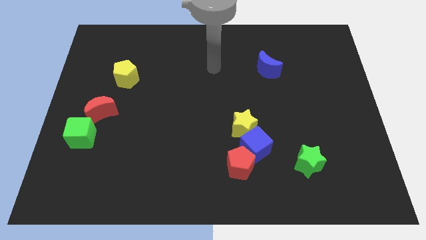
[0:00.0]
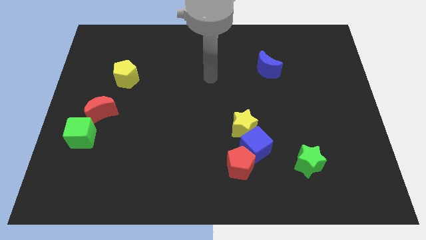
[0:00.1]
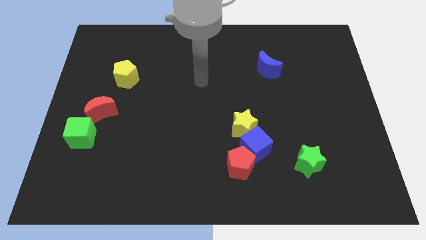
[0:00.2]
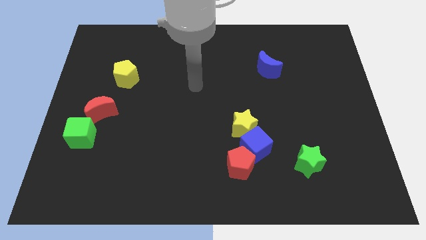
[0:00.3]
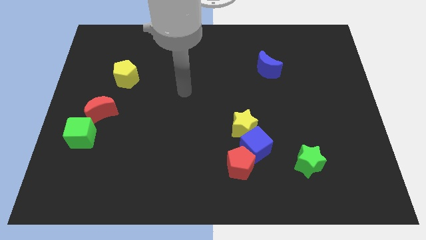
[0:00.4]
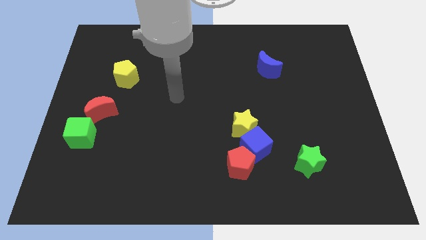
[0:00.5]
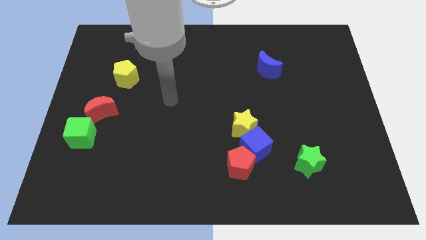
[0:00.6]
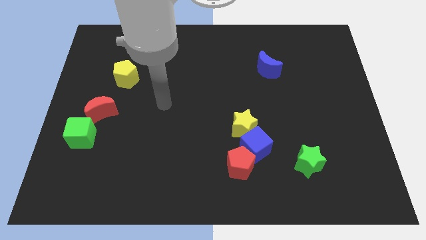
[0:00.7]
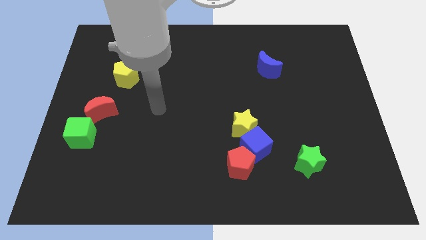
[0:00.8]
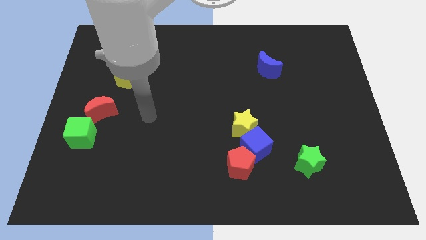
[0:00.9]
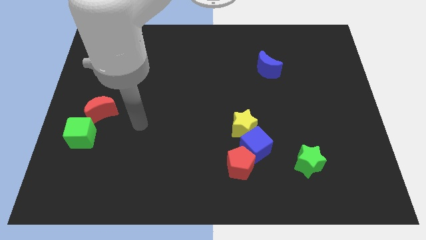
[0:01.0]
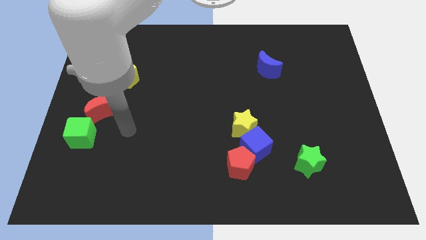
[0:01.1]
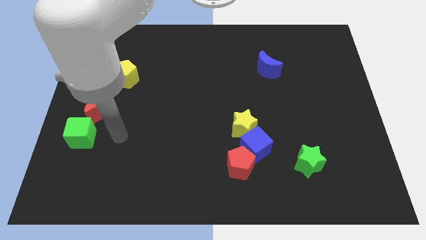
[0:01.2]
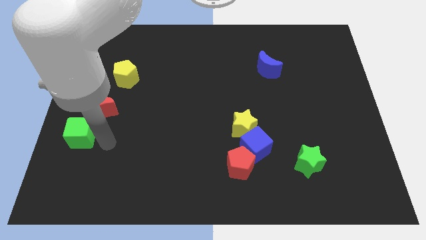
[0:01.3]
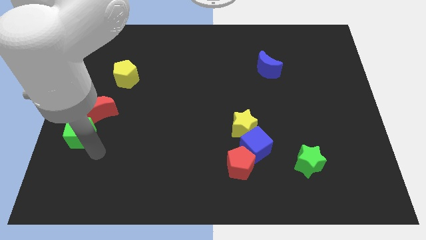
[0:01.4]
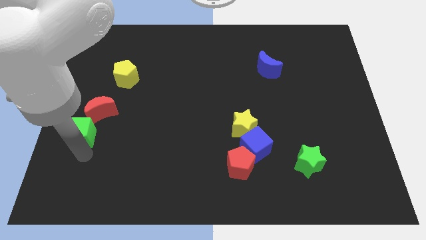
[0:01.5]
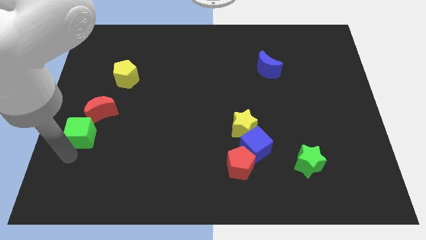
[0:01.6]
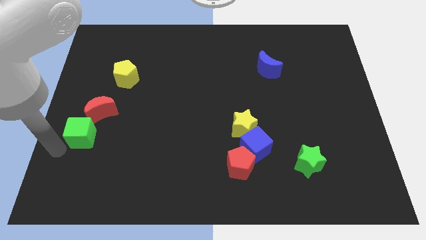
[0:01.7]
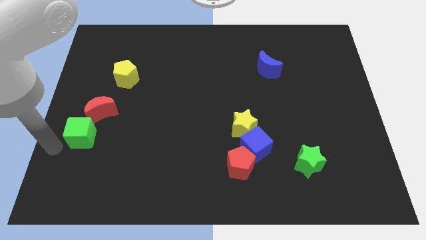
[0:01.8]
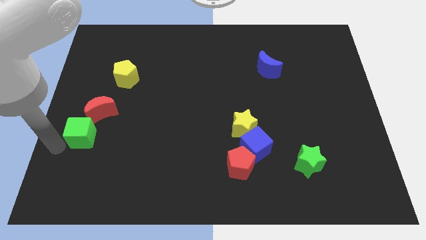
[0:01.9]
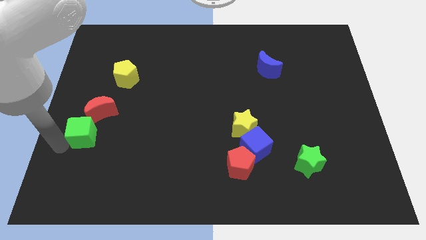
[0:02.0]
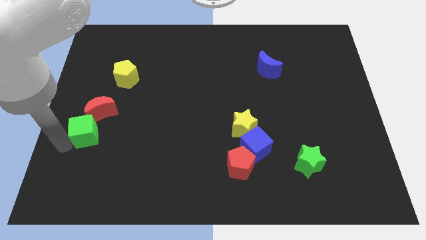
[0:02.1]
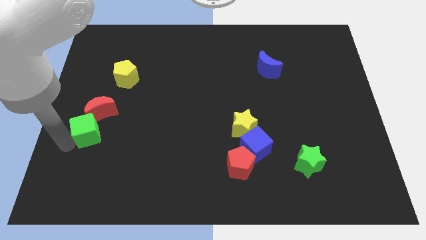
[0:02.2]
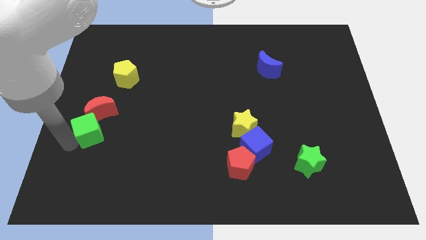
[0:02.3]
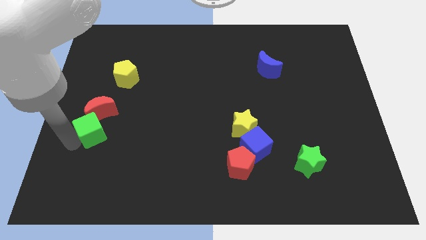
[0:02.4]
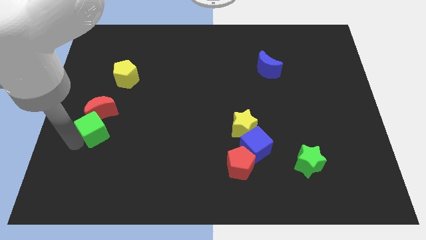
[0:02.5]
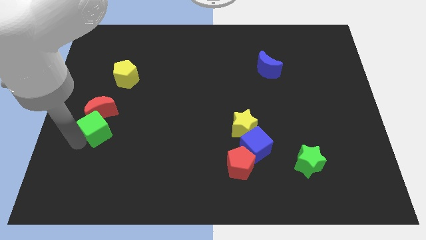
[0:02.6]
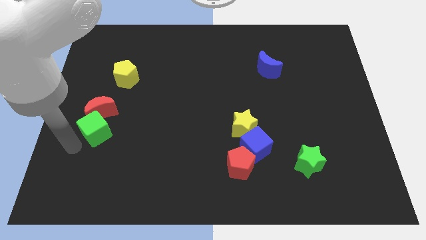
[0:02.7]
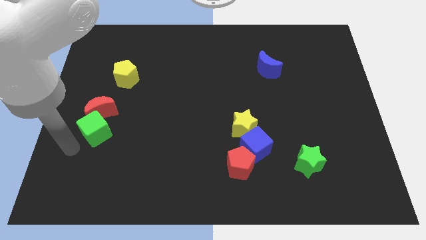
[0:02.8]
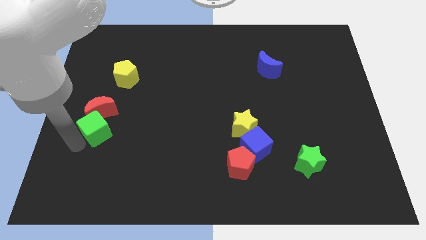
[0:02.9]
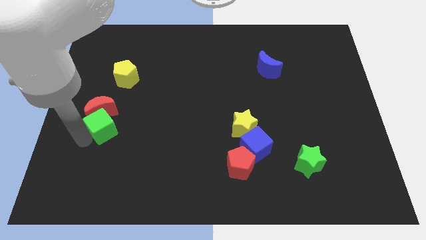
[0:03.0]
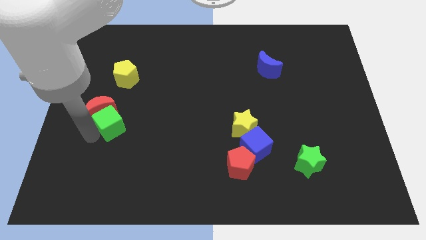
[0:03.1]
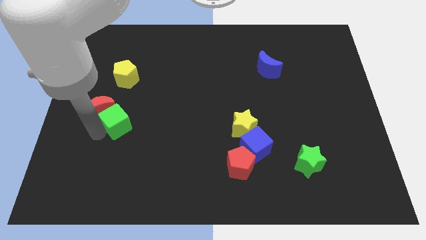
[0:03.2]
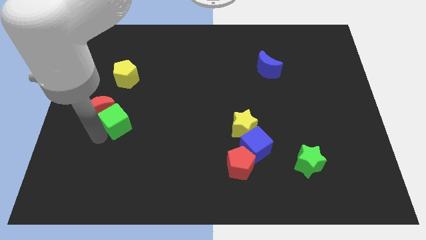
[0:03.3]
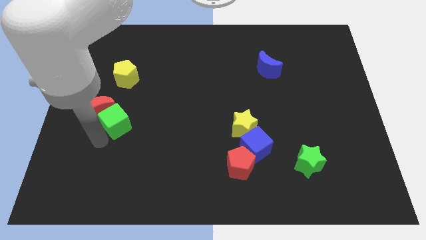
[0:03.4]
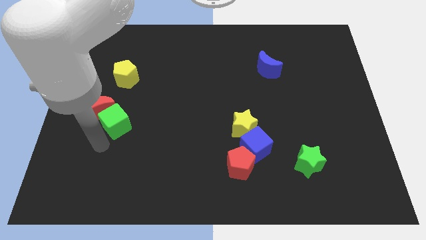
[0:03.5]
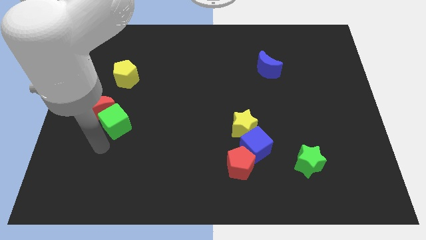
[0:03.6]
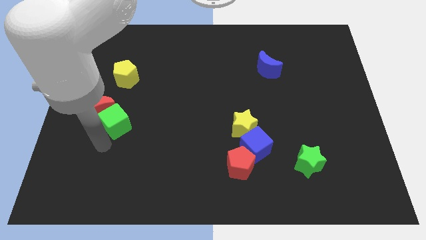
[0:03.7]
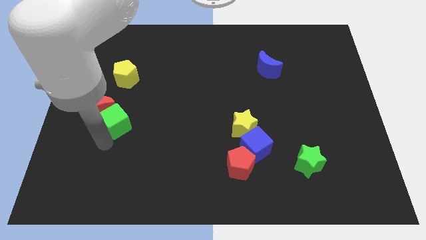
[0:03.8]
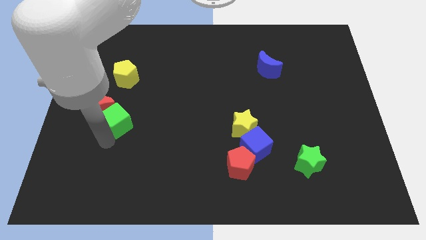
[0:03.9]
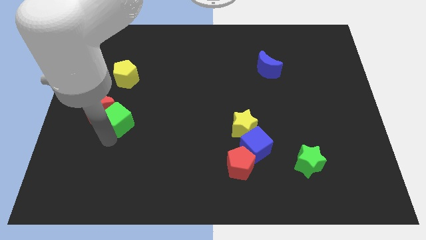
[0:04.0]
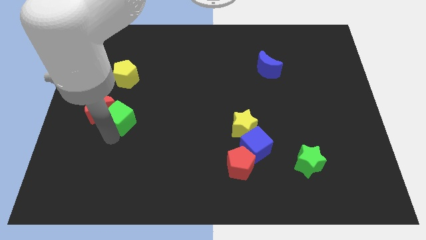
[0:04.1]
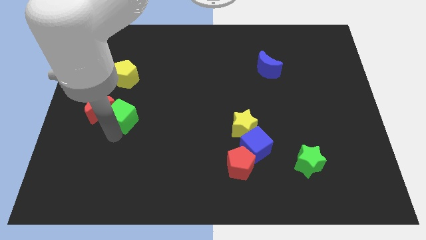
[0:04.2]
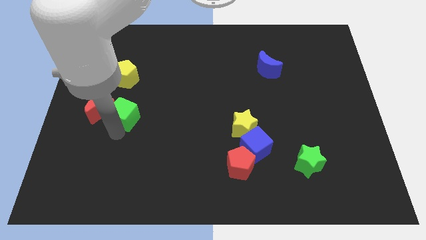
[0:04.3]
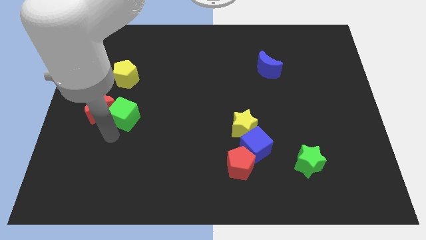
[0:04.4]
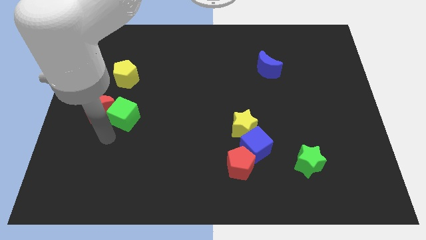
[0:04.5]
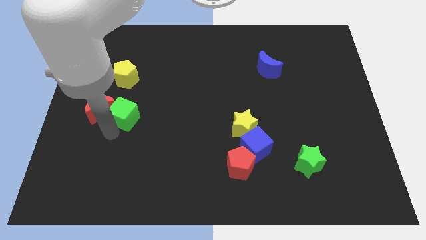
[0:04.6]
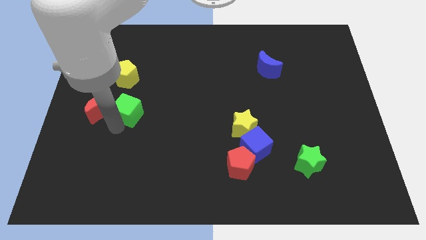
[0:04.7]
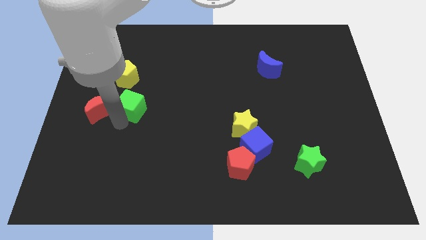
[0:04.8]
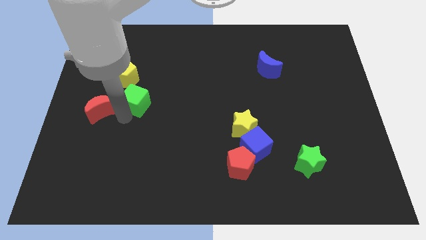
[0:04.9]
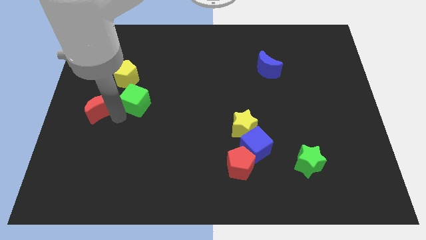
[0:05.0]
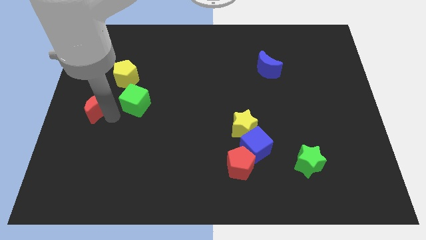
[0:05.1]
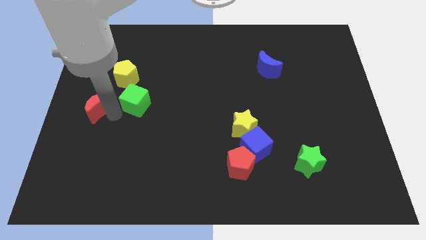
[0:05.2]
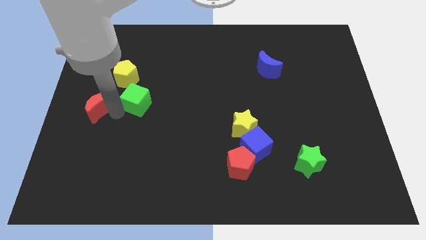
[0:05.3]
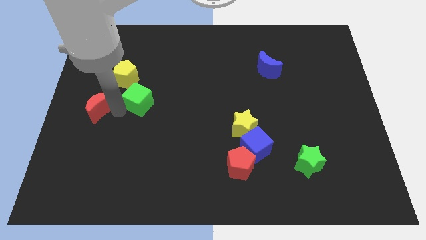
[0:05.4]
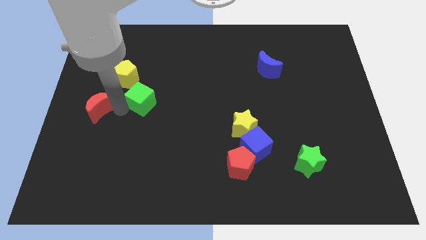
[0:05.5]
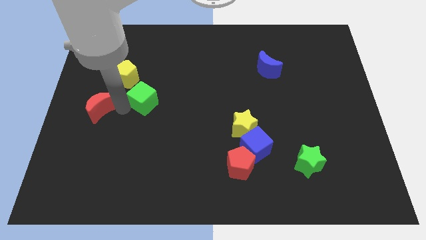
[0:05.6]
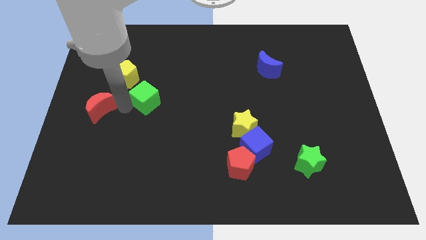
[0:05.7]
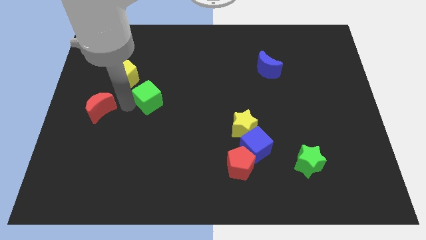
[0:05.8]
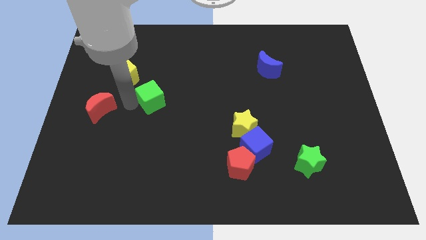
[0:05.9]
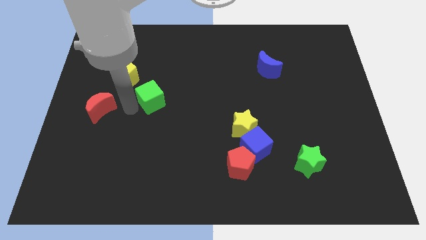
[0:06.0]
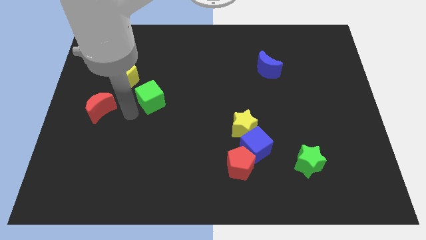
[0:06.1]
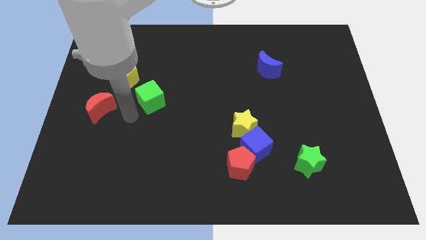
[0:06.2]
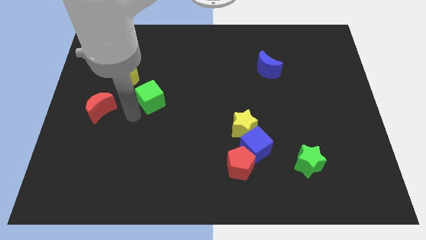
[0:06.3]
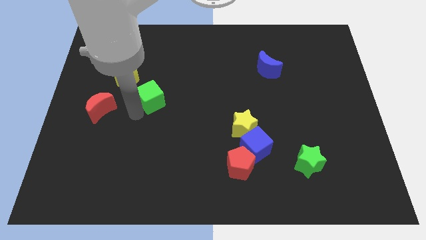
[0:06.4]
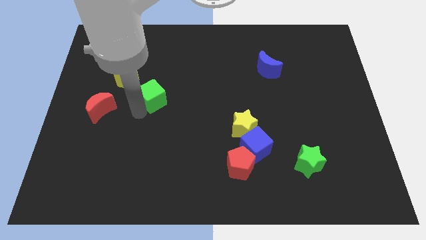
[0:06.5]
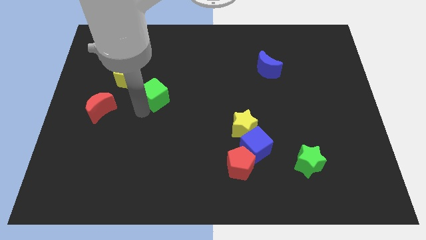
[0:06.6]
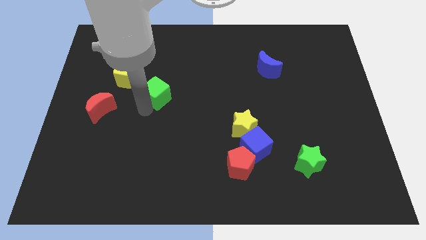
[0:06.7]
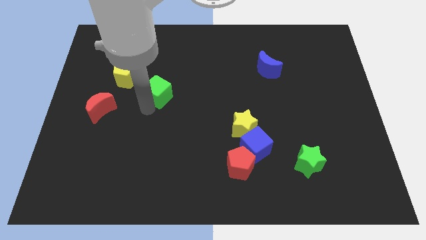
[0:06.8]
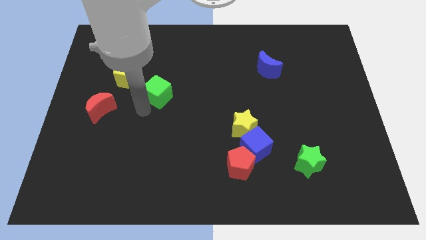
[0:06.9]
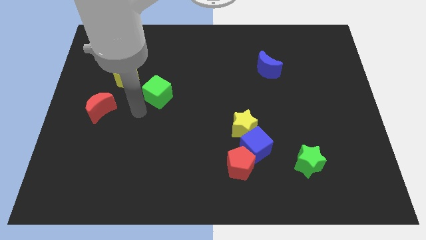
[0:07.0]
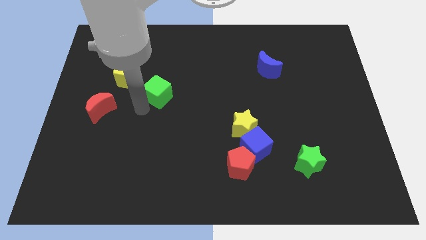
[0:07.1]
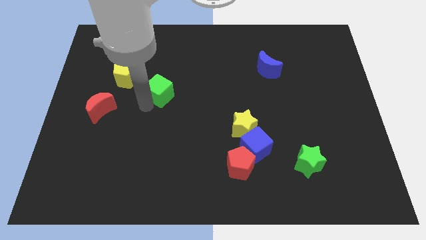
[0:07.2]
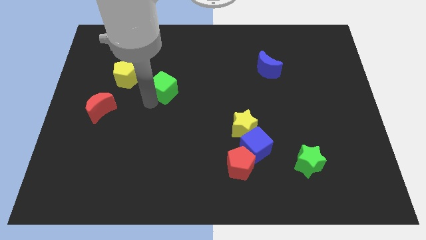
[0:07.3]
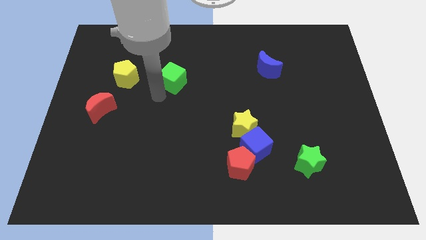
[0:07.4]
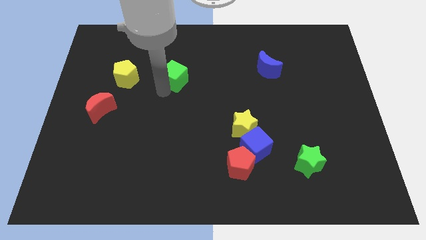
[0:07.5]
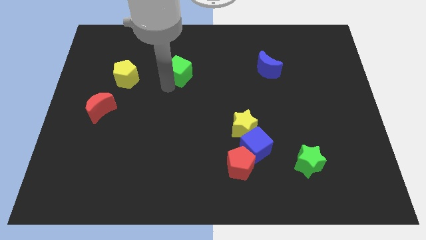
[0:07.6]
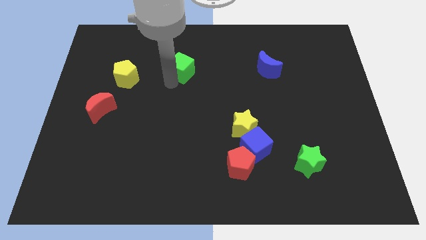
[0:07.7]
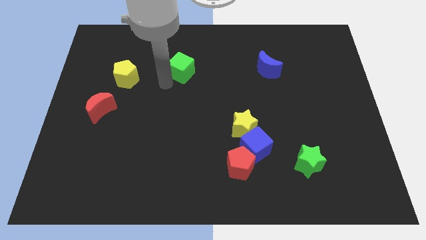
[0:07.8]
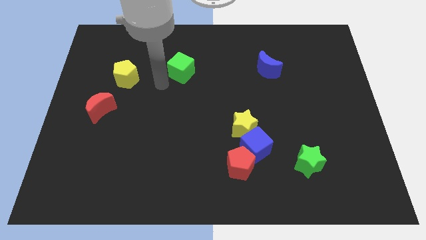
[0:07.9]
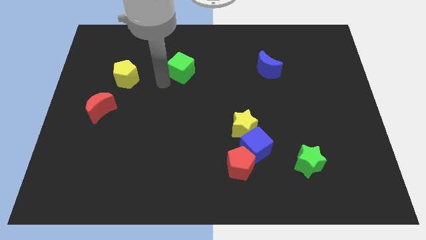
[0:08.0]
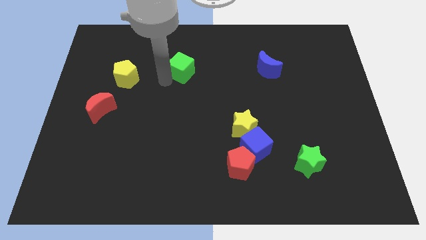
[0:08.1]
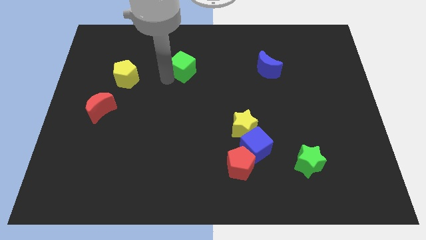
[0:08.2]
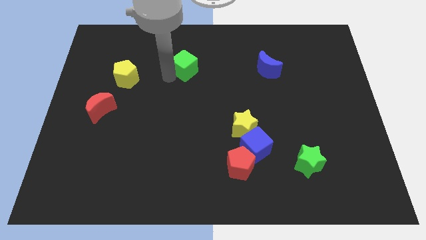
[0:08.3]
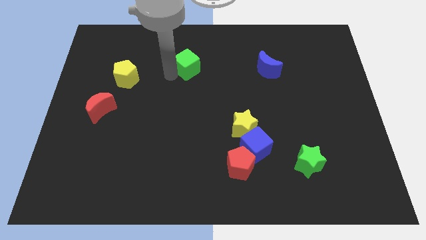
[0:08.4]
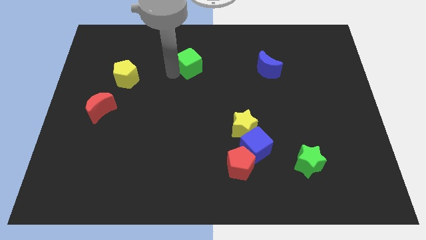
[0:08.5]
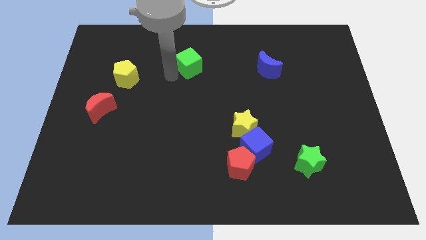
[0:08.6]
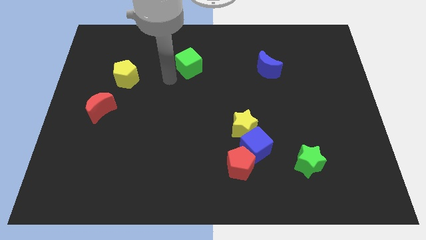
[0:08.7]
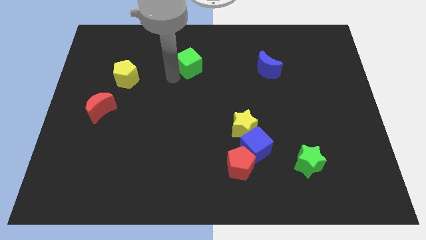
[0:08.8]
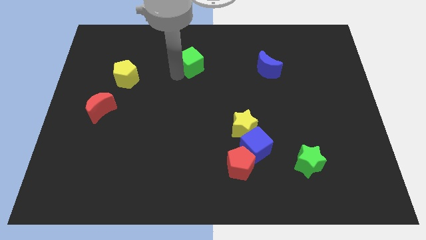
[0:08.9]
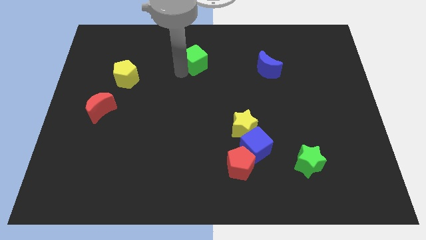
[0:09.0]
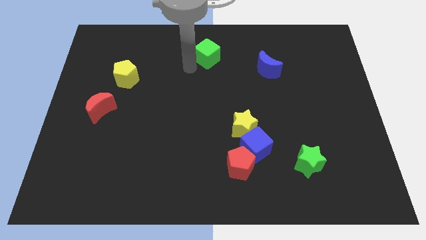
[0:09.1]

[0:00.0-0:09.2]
slide the green cube to the top side
